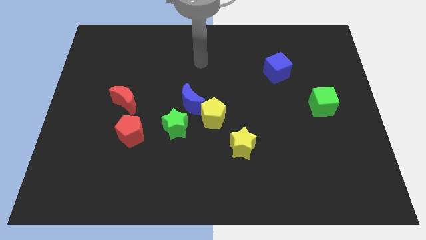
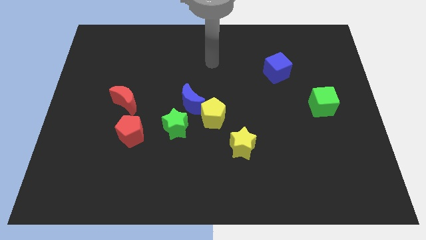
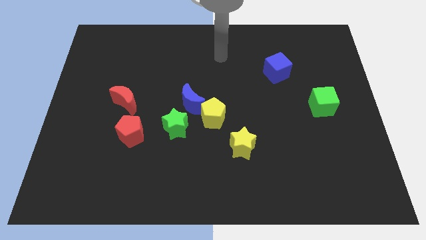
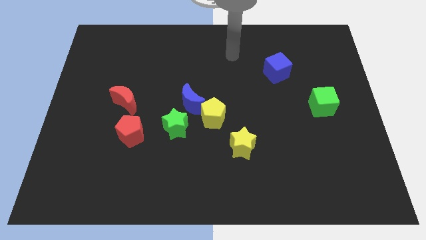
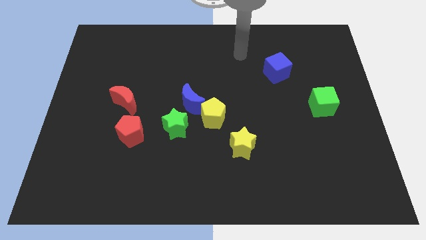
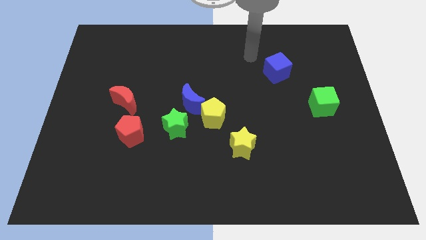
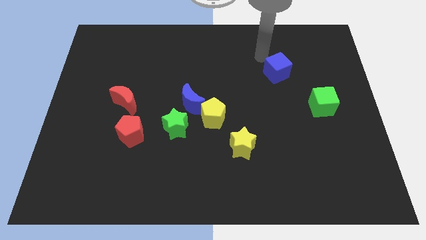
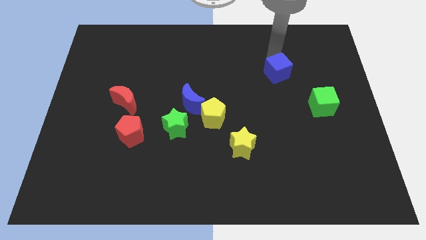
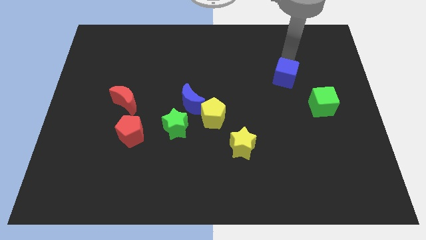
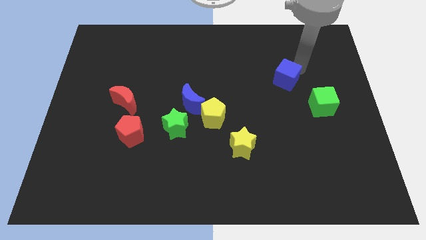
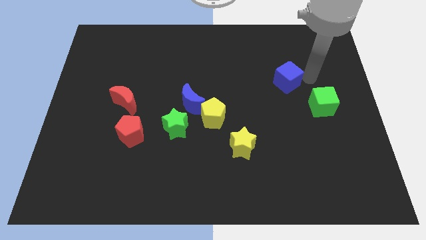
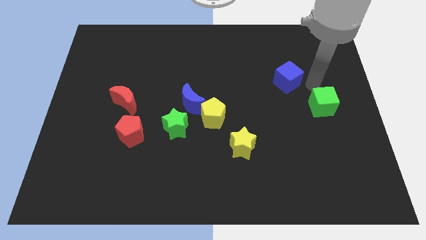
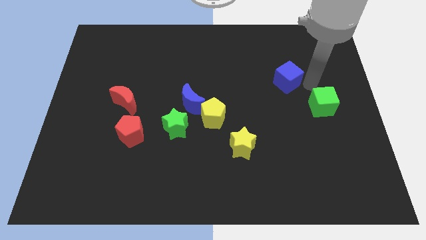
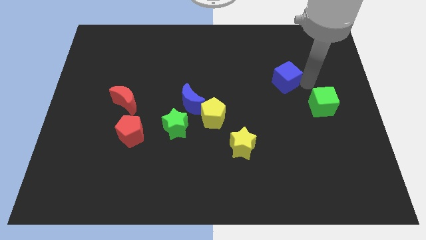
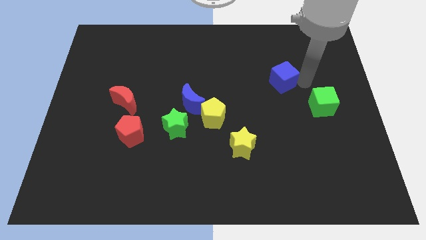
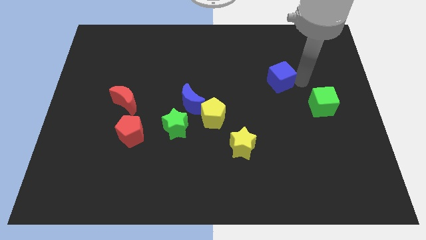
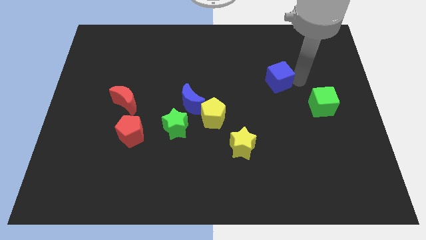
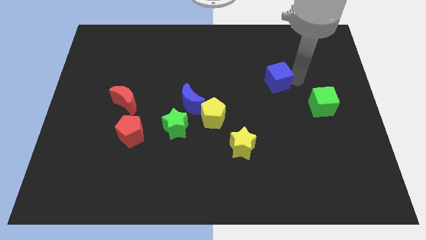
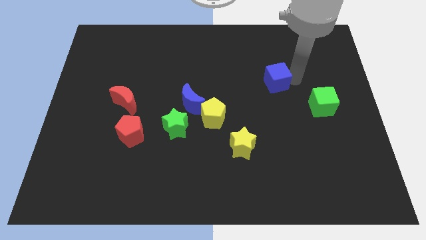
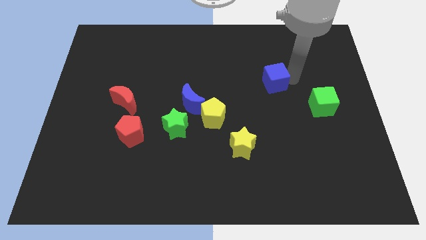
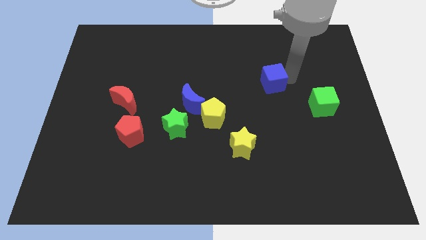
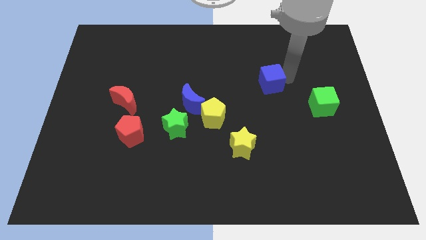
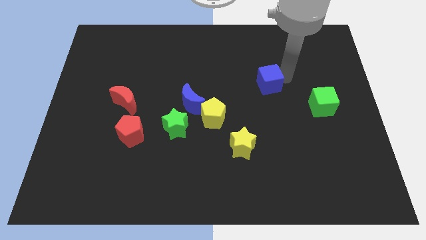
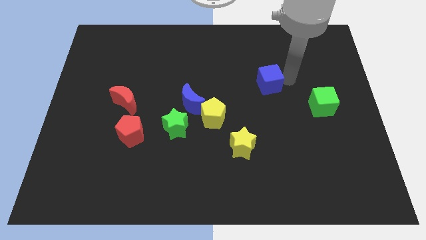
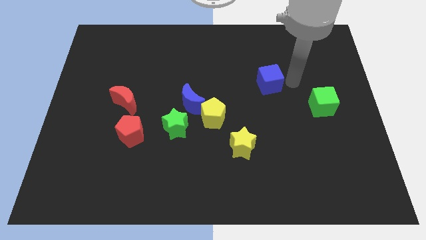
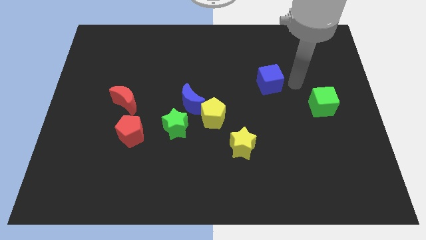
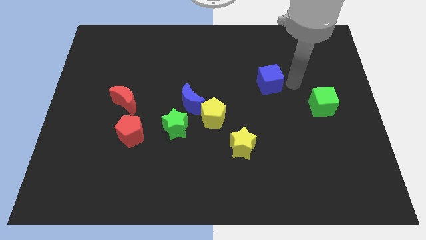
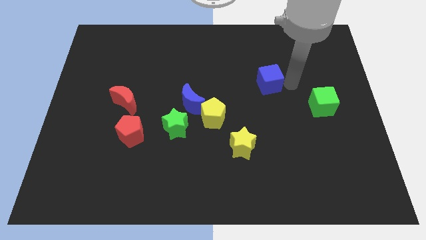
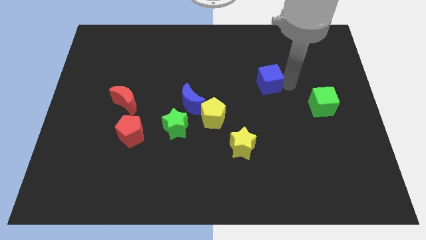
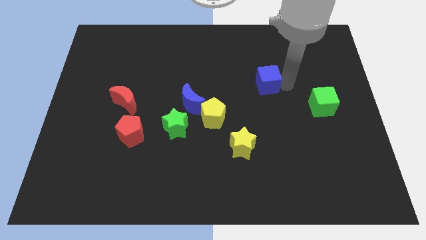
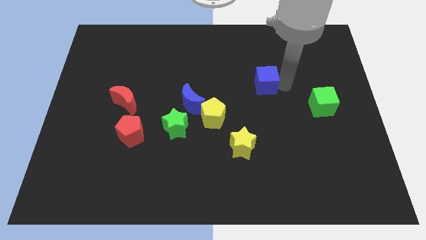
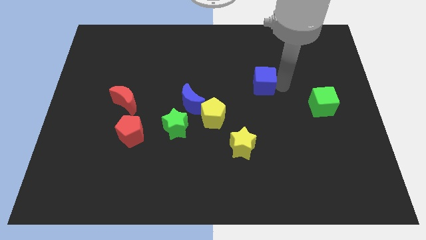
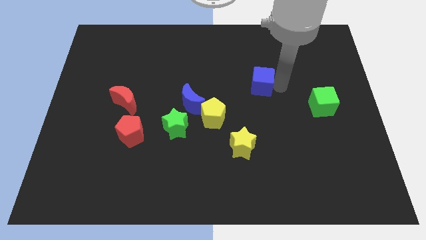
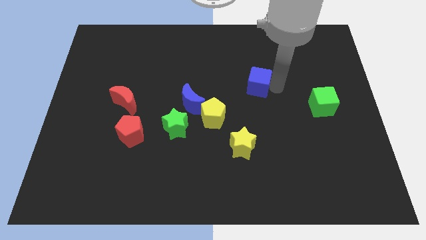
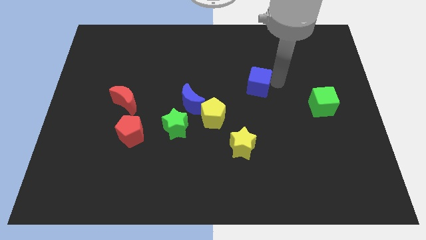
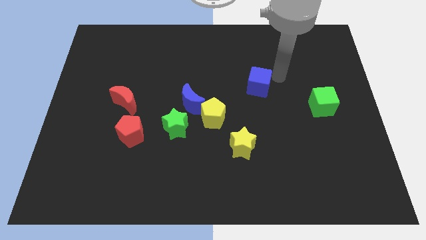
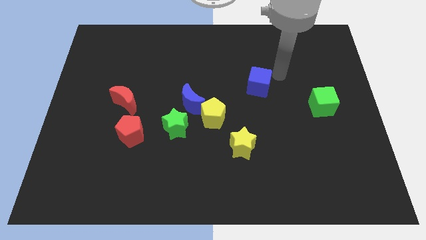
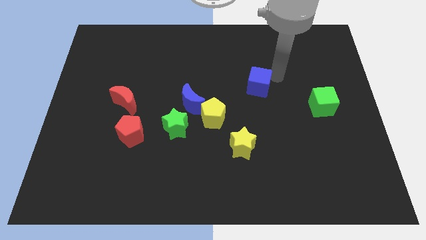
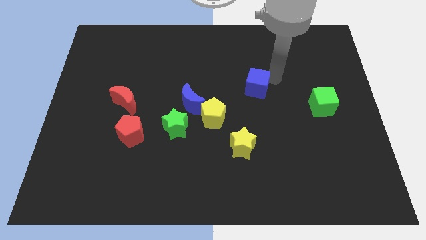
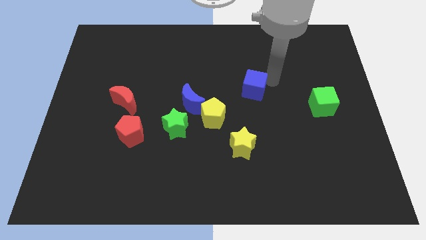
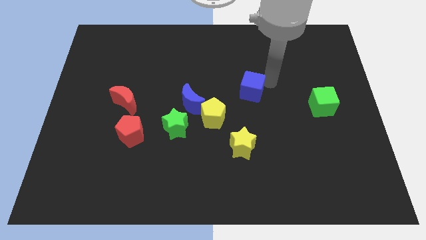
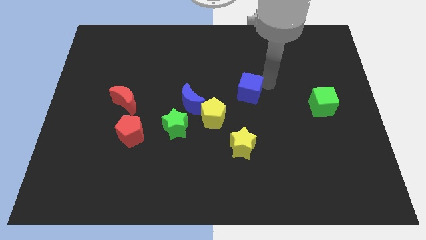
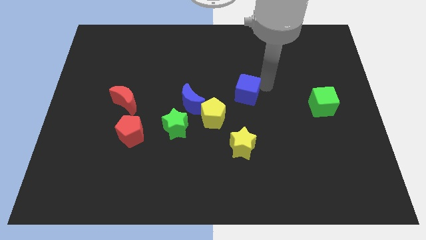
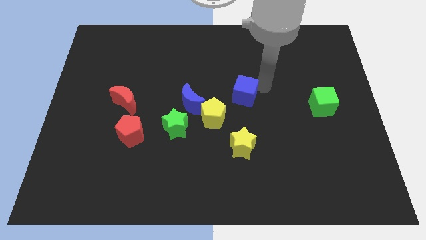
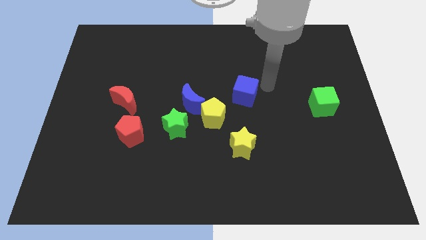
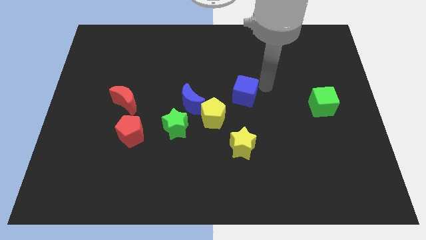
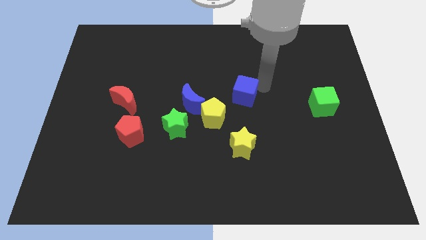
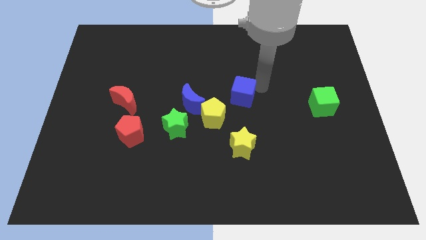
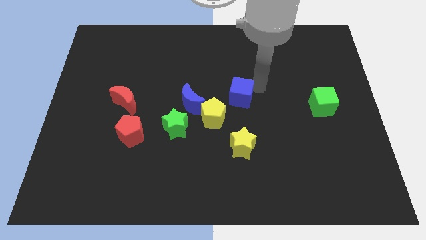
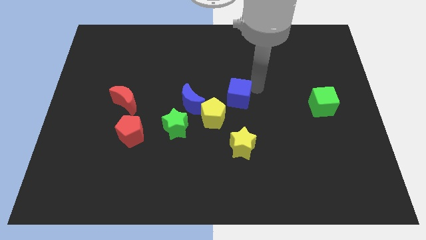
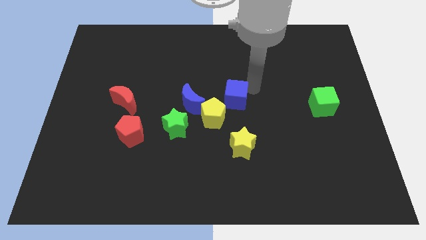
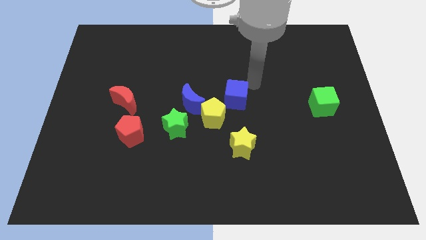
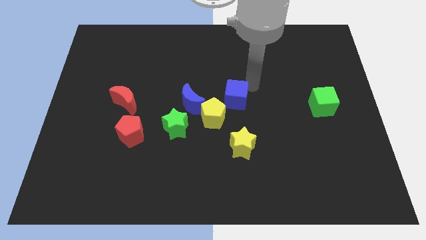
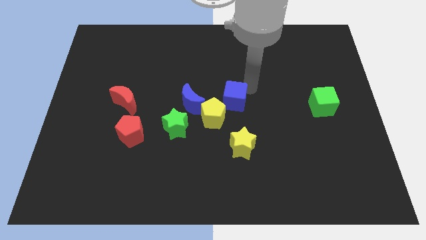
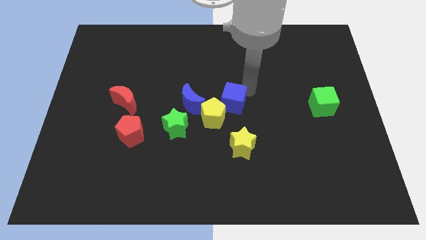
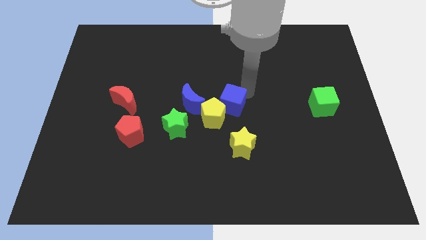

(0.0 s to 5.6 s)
push the blue cube close to the yellow pentagon

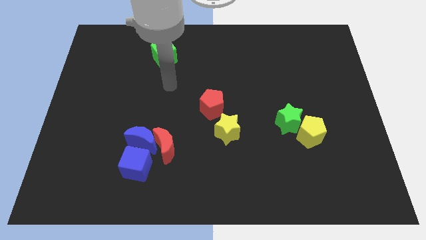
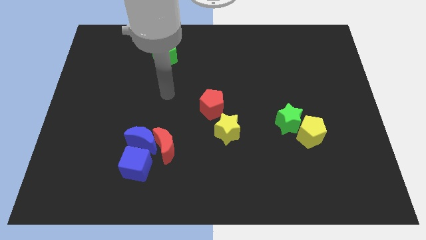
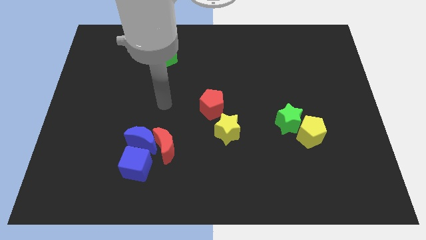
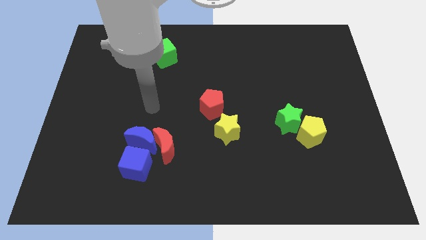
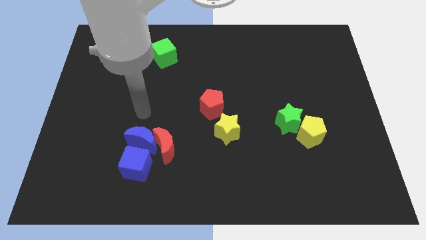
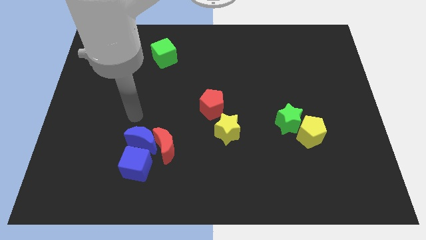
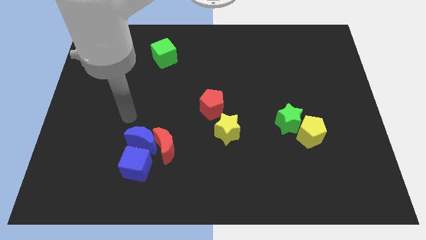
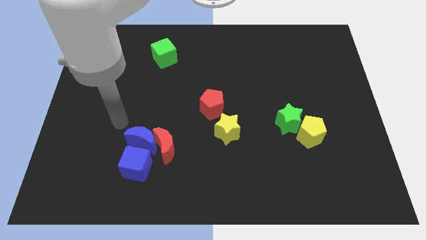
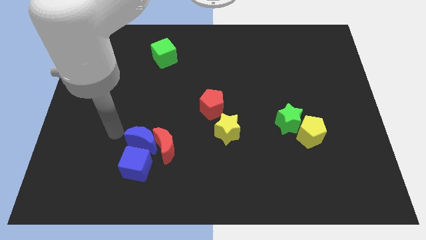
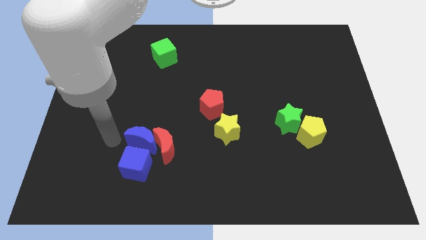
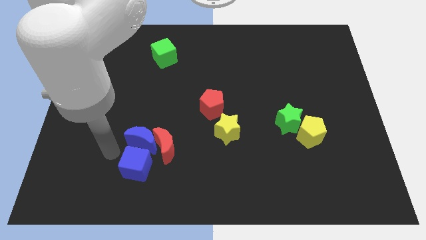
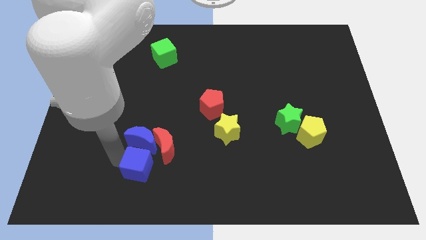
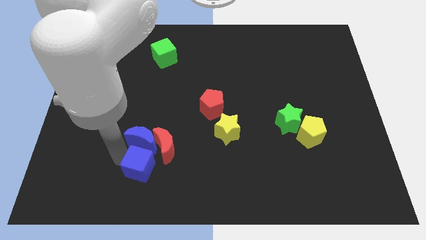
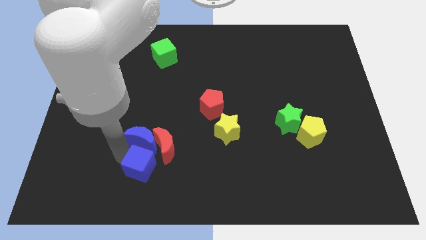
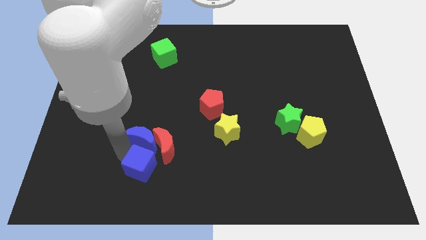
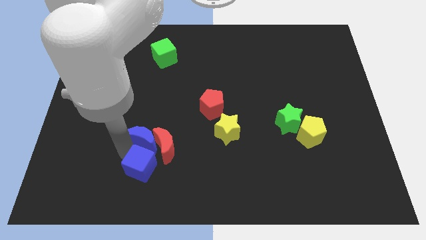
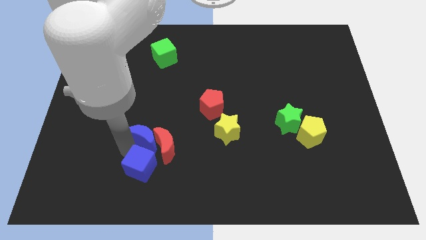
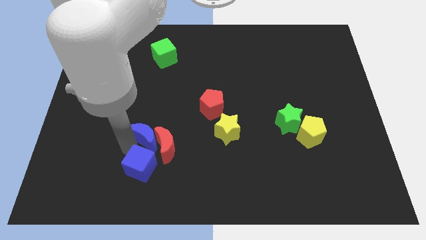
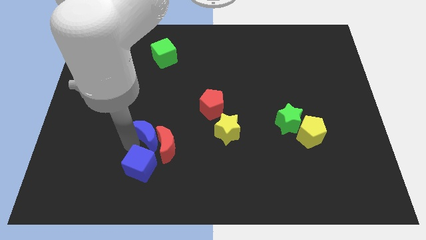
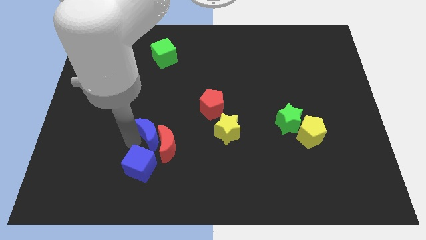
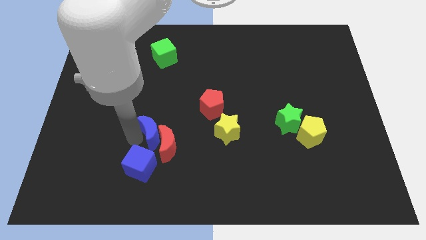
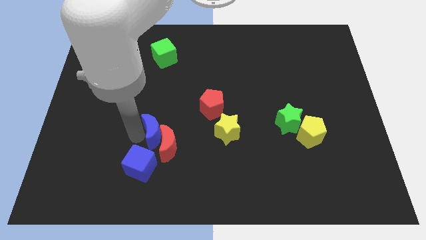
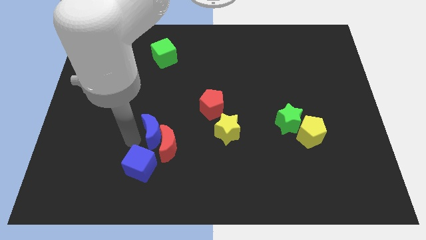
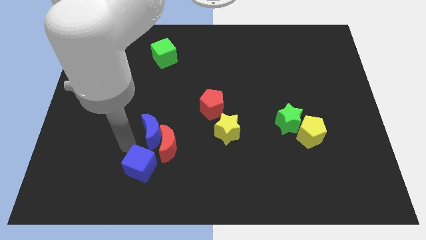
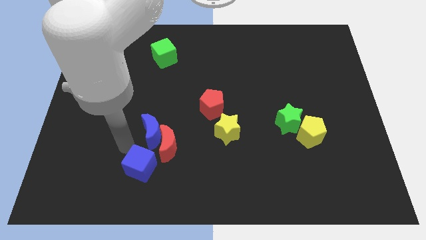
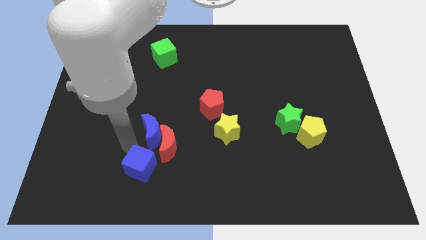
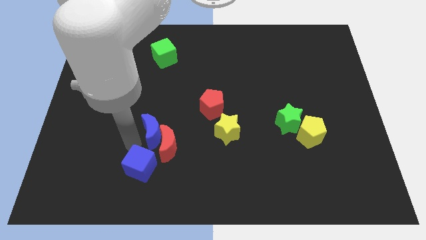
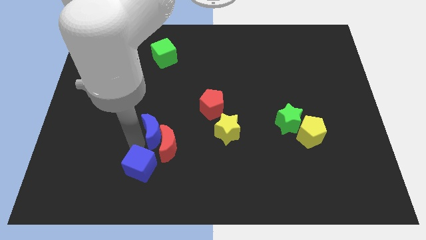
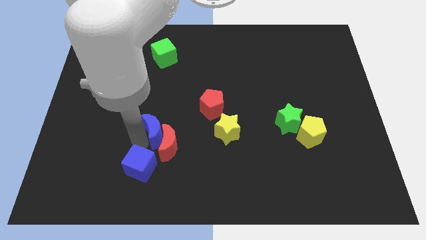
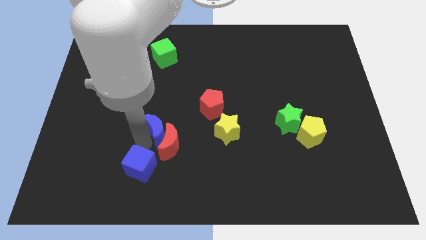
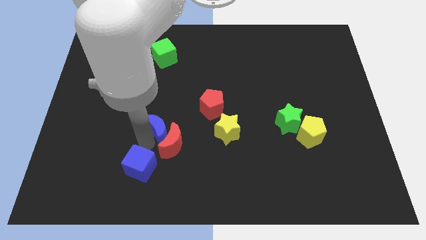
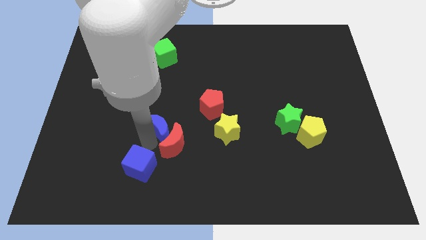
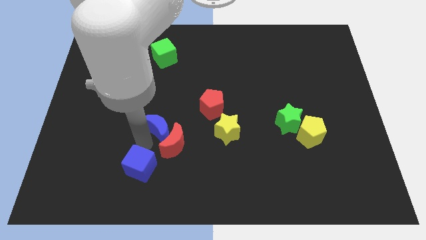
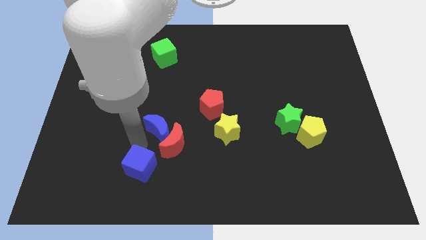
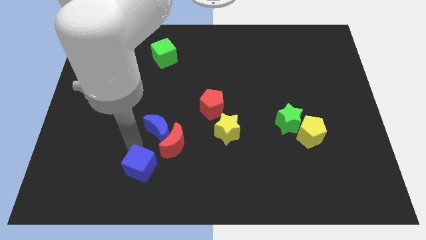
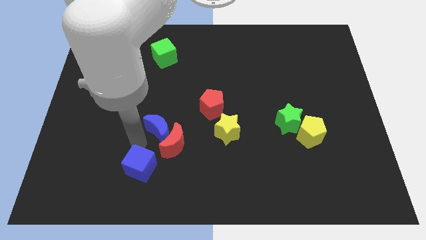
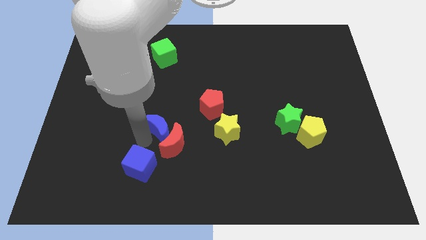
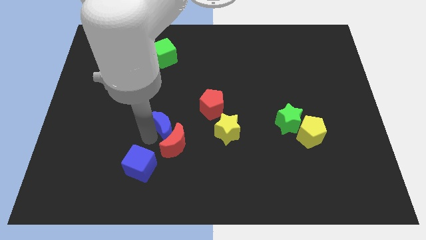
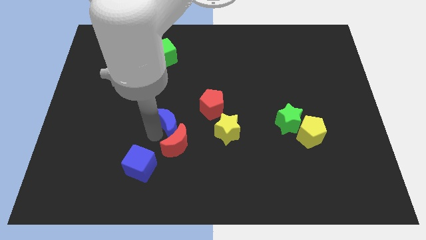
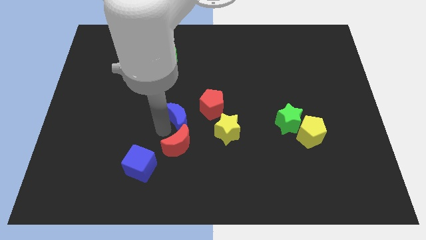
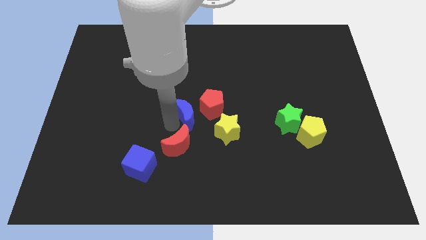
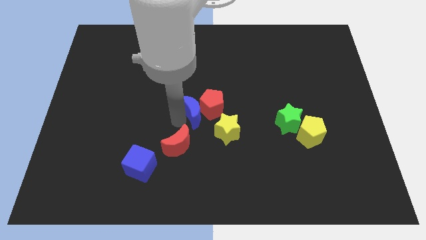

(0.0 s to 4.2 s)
push the blue moon next to the red pentagon
